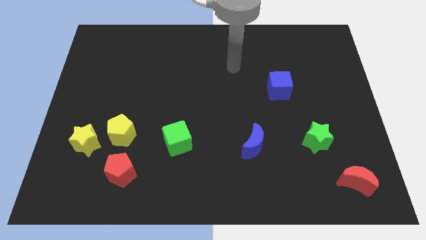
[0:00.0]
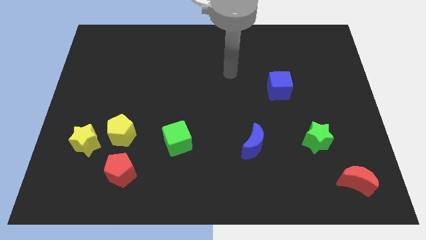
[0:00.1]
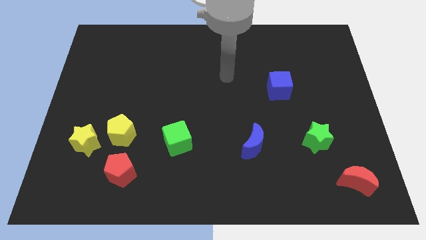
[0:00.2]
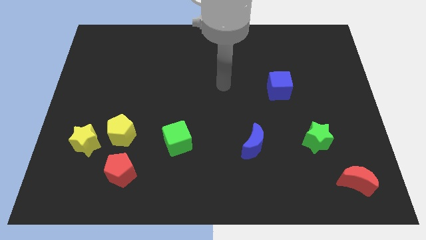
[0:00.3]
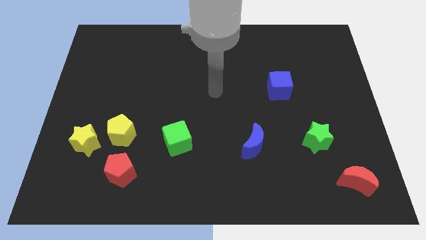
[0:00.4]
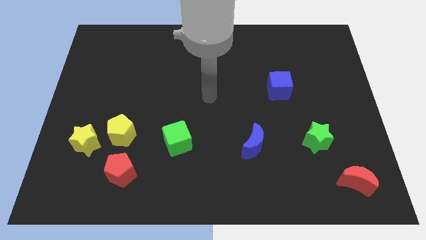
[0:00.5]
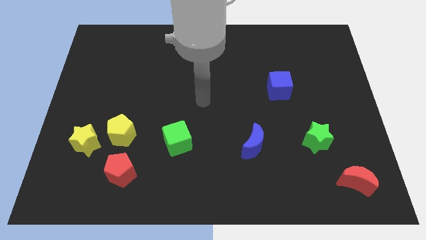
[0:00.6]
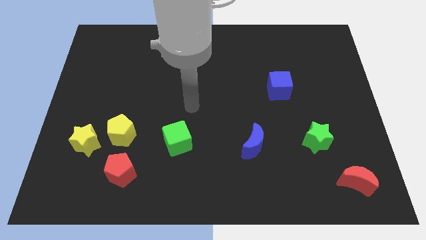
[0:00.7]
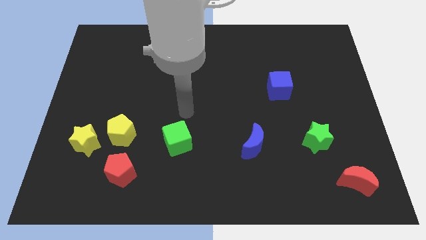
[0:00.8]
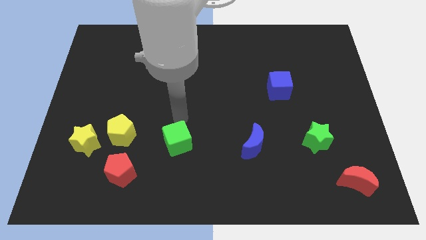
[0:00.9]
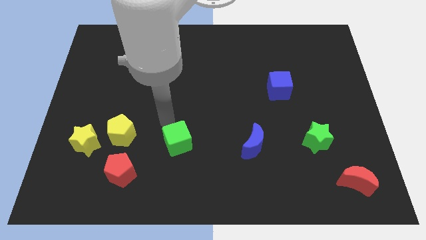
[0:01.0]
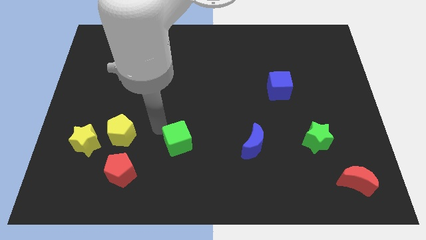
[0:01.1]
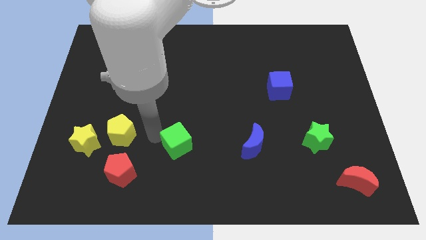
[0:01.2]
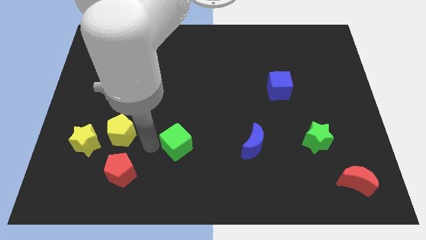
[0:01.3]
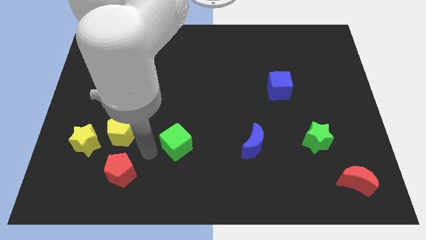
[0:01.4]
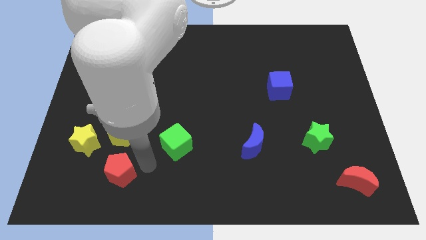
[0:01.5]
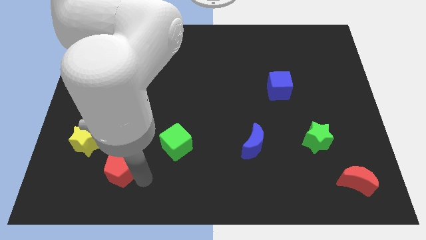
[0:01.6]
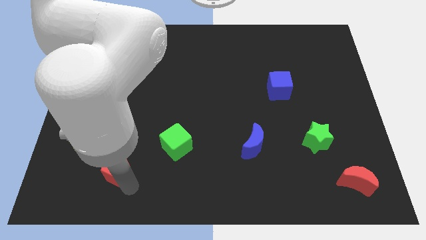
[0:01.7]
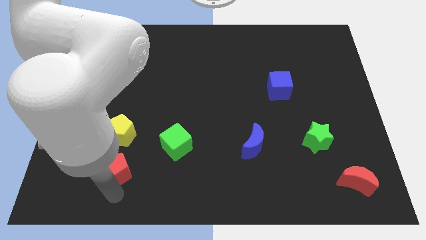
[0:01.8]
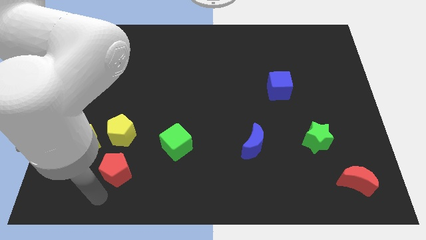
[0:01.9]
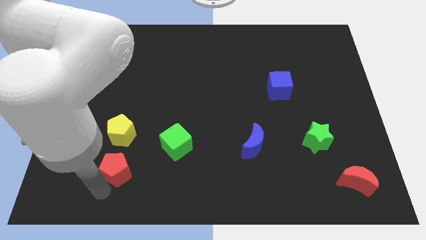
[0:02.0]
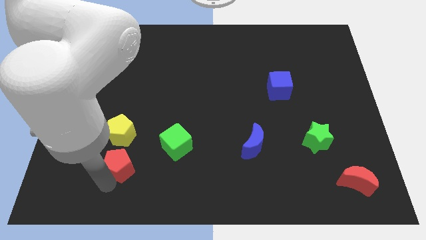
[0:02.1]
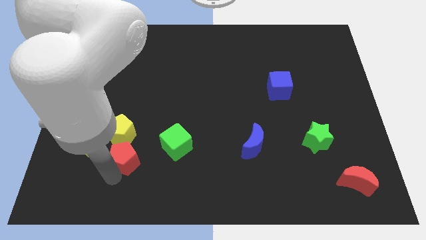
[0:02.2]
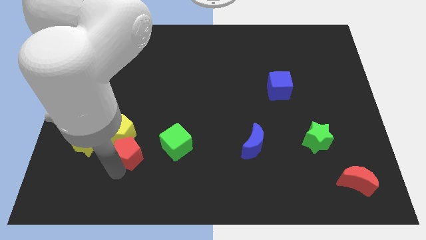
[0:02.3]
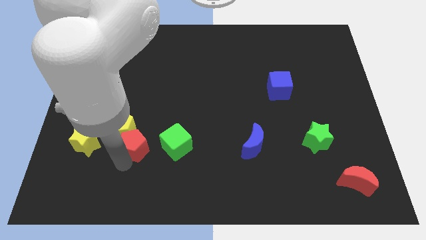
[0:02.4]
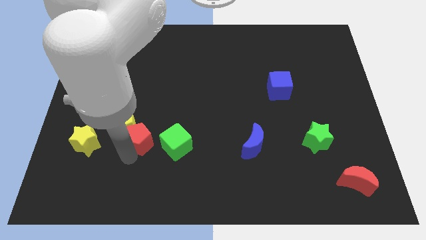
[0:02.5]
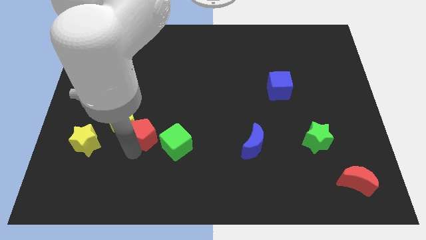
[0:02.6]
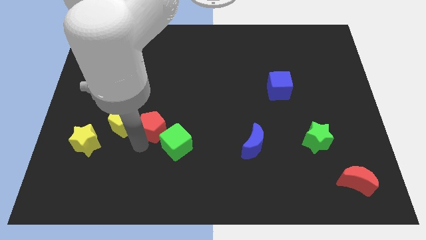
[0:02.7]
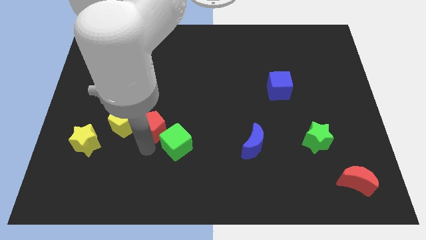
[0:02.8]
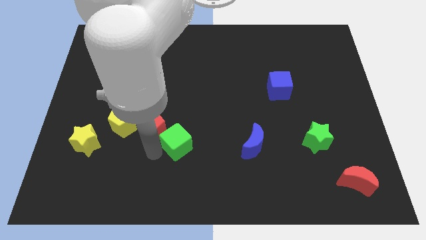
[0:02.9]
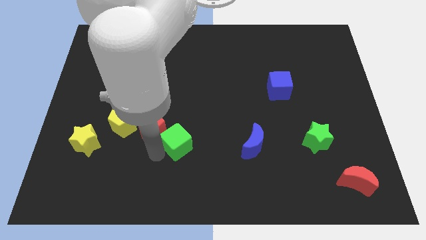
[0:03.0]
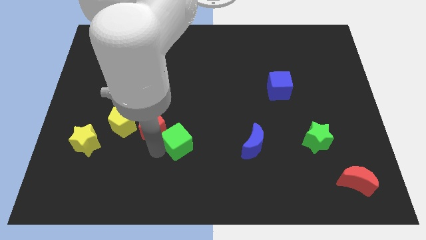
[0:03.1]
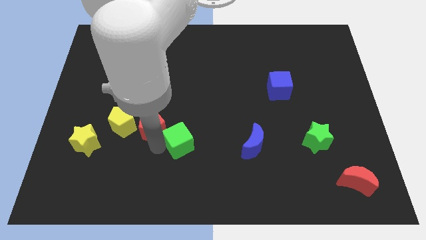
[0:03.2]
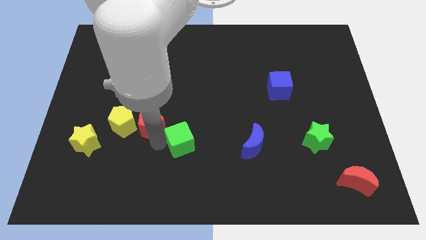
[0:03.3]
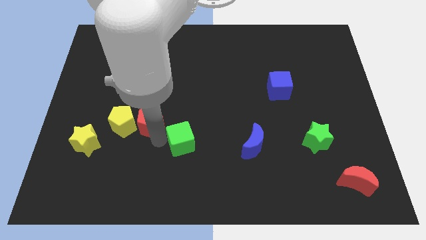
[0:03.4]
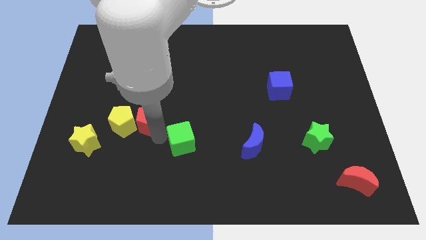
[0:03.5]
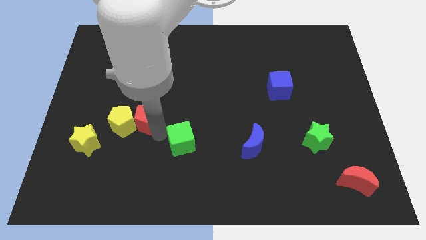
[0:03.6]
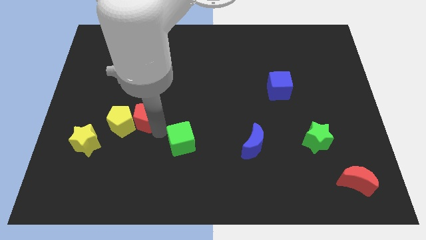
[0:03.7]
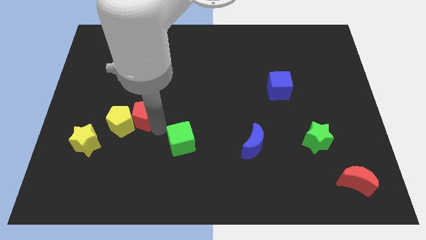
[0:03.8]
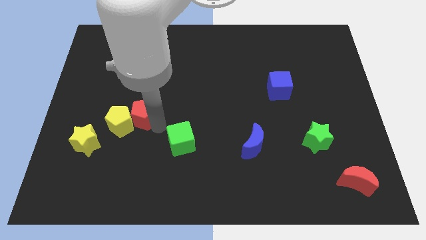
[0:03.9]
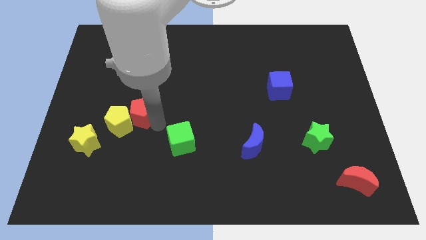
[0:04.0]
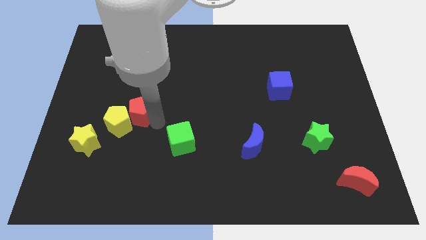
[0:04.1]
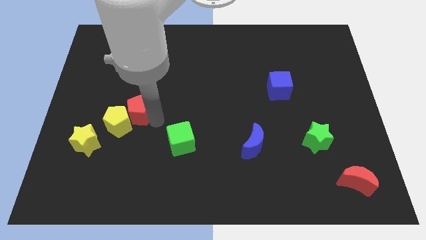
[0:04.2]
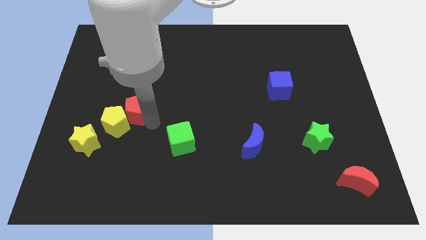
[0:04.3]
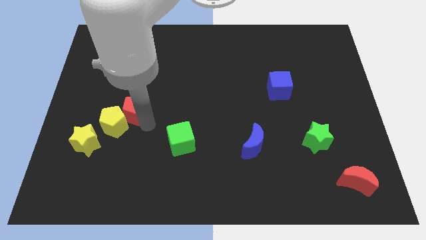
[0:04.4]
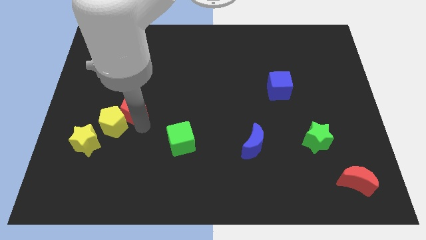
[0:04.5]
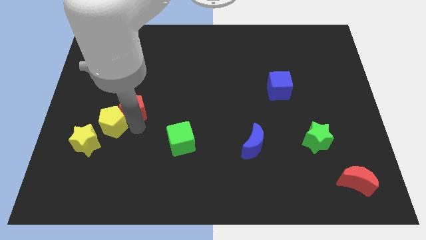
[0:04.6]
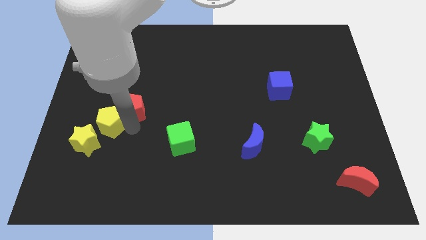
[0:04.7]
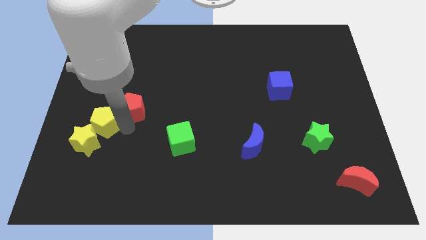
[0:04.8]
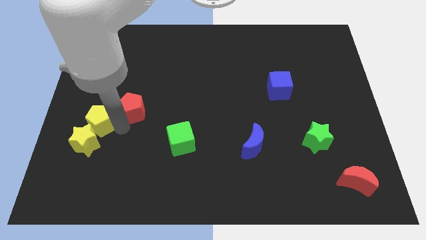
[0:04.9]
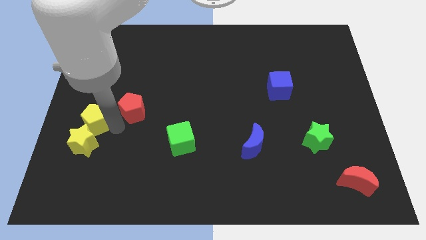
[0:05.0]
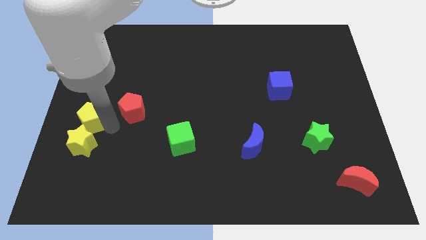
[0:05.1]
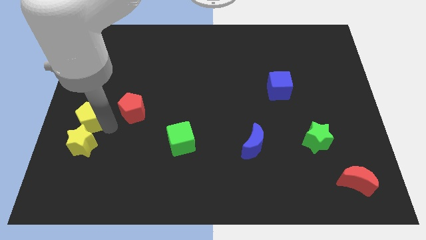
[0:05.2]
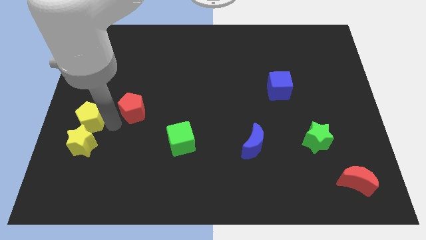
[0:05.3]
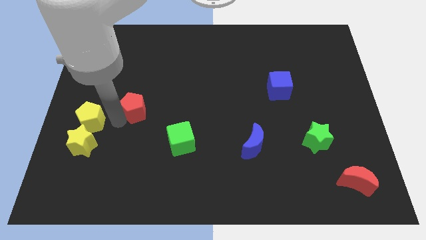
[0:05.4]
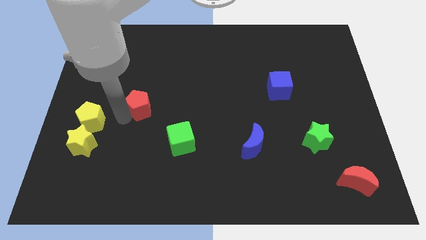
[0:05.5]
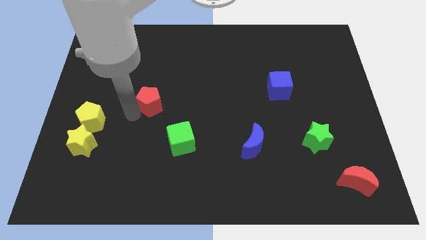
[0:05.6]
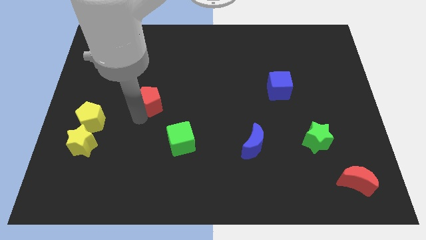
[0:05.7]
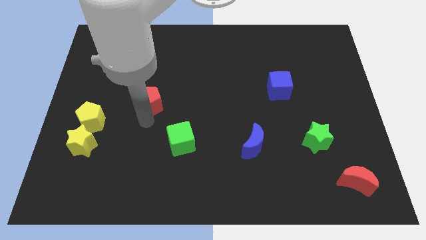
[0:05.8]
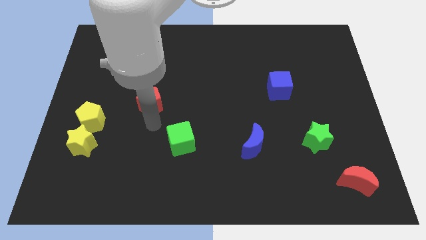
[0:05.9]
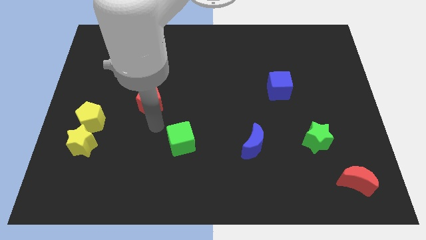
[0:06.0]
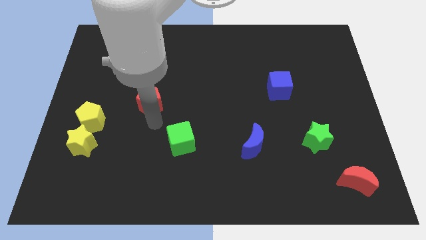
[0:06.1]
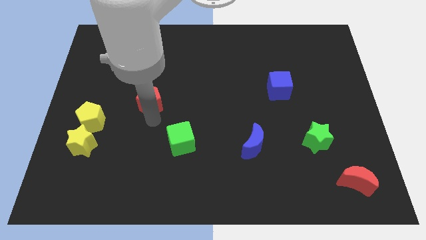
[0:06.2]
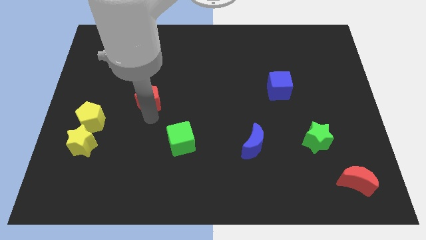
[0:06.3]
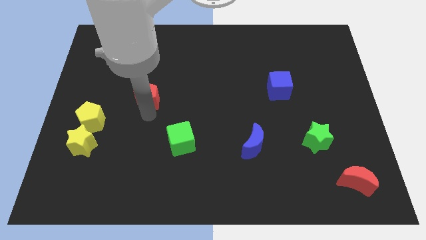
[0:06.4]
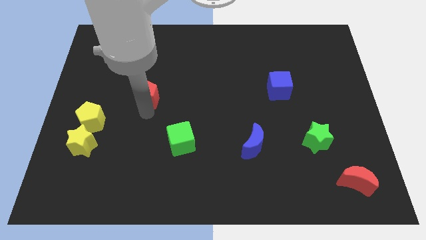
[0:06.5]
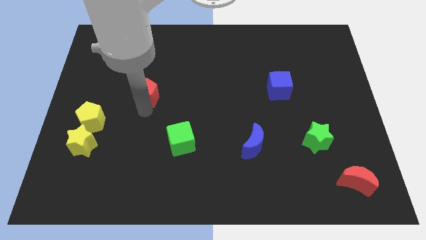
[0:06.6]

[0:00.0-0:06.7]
push the red pentagon up

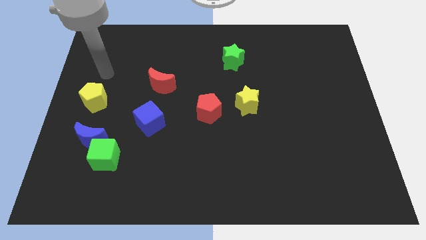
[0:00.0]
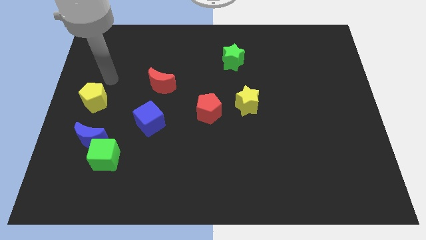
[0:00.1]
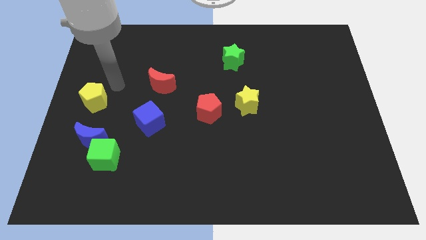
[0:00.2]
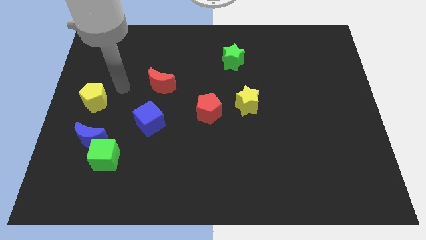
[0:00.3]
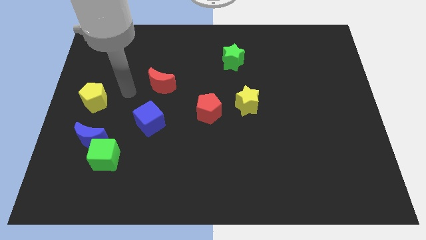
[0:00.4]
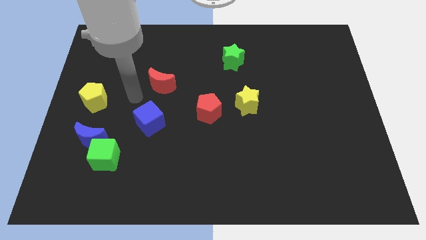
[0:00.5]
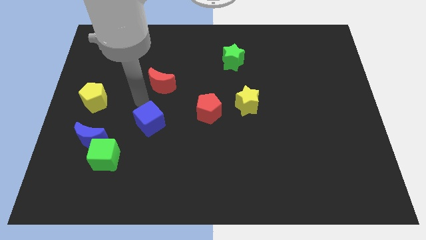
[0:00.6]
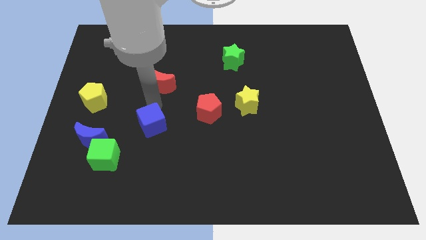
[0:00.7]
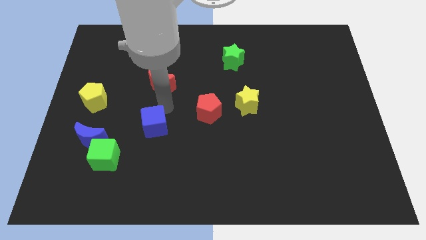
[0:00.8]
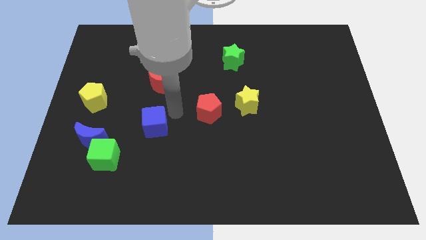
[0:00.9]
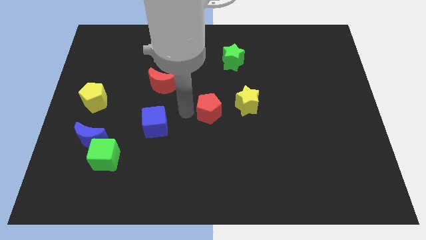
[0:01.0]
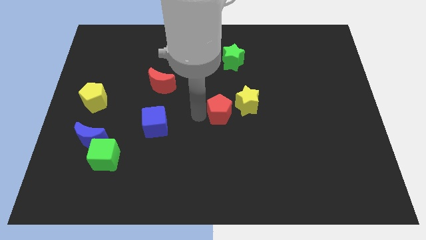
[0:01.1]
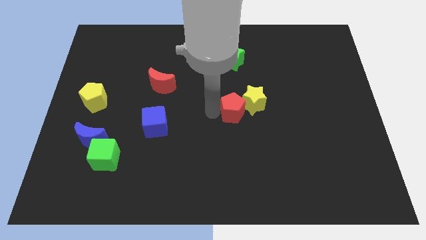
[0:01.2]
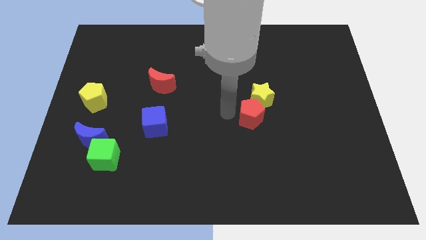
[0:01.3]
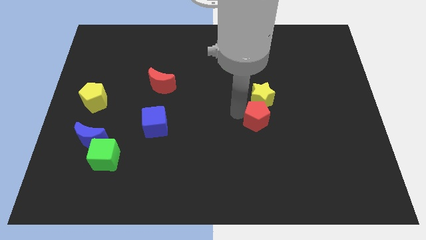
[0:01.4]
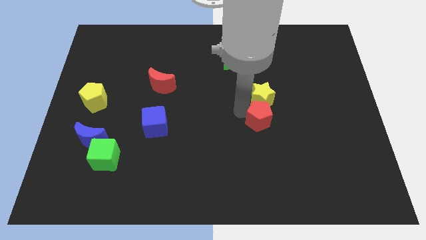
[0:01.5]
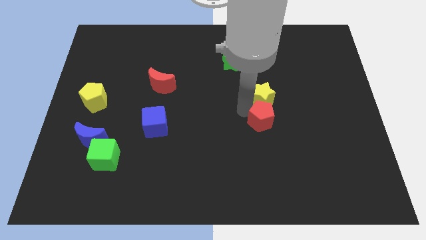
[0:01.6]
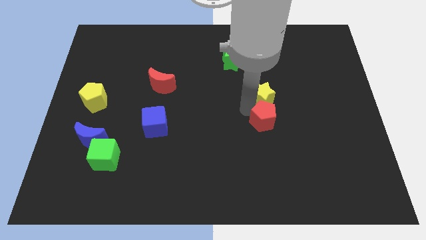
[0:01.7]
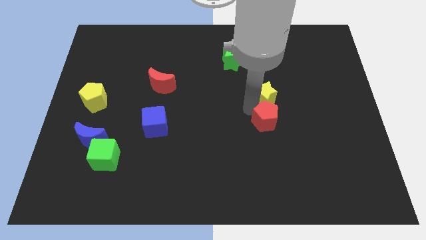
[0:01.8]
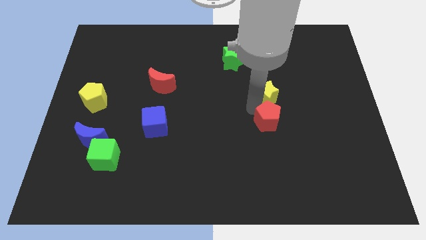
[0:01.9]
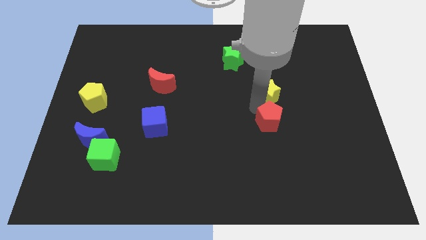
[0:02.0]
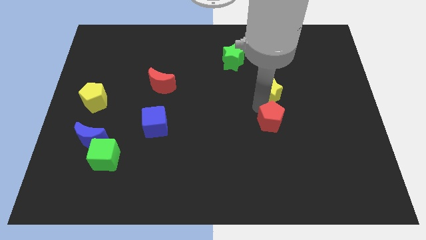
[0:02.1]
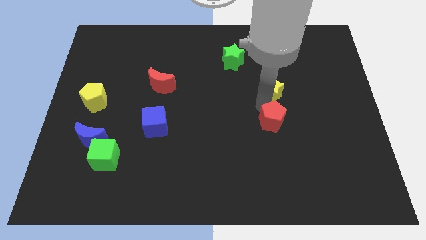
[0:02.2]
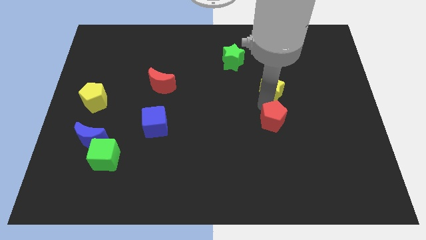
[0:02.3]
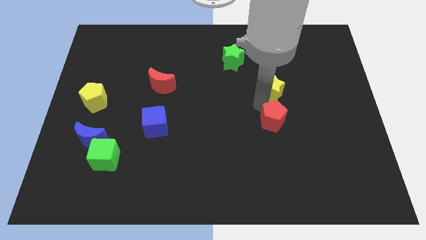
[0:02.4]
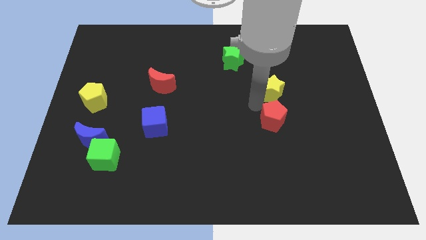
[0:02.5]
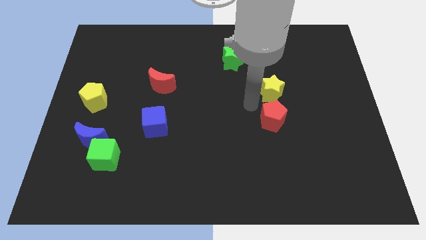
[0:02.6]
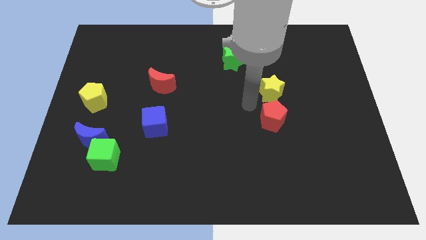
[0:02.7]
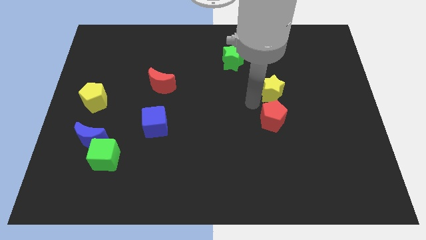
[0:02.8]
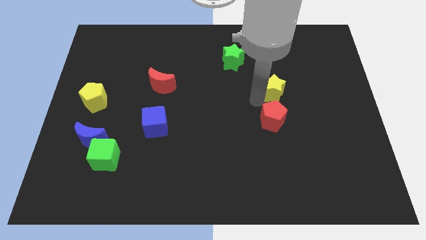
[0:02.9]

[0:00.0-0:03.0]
push the yellow star slightly upwards and to the right diagonally
